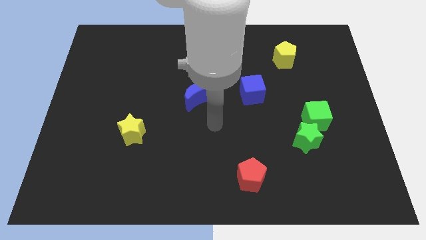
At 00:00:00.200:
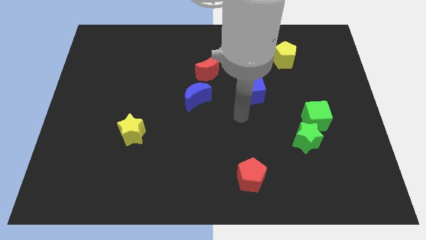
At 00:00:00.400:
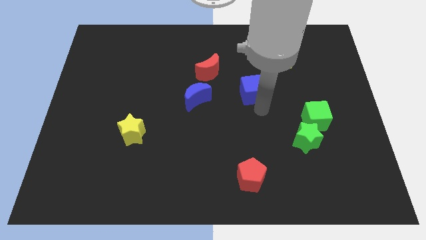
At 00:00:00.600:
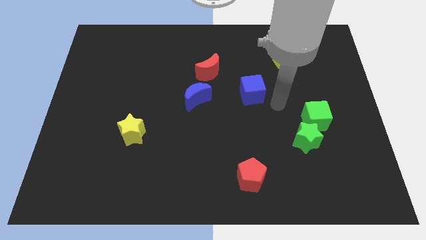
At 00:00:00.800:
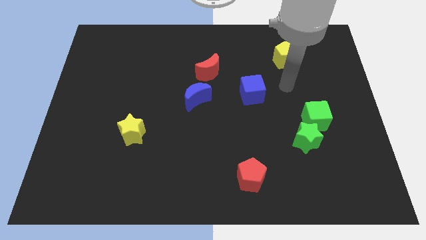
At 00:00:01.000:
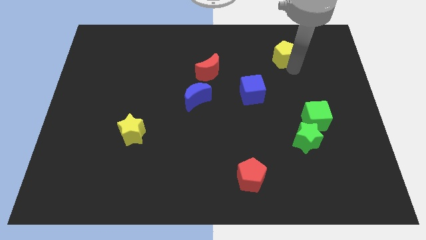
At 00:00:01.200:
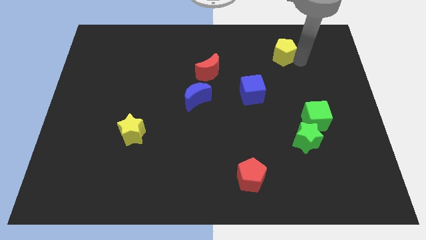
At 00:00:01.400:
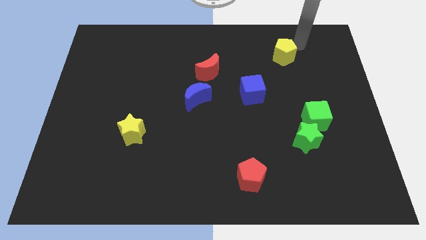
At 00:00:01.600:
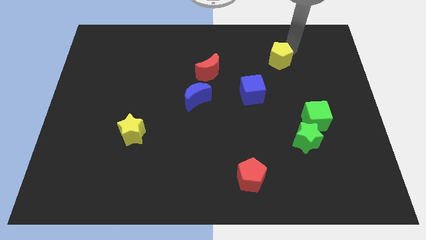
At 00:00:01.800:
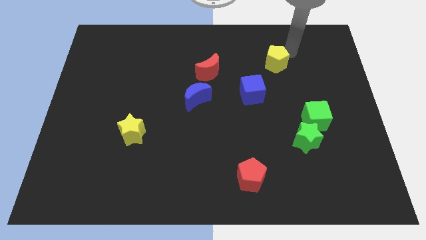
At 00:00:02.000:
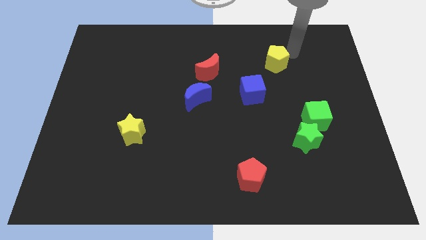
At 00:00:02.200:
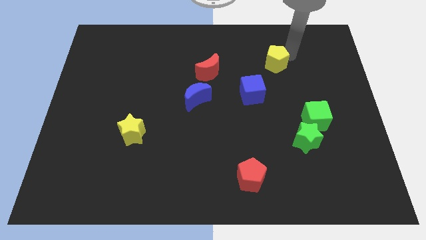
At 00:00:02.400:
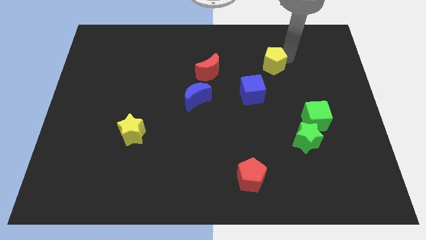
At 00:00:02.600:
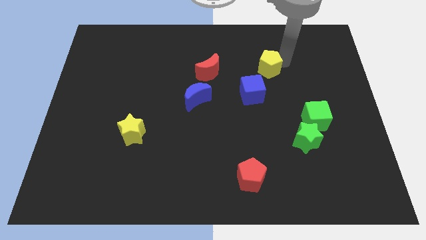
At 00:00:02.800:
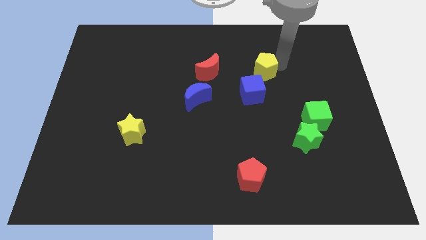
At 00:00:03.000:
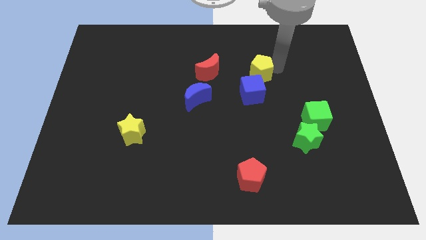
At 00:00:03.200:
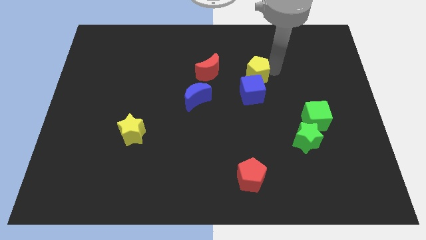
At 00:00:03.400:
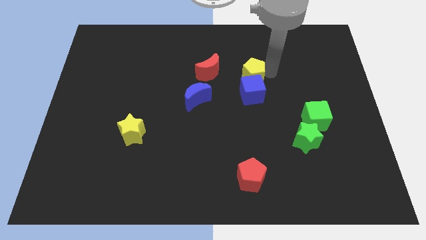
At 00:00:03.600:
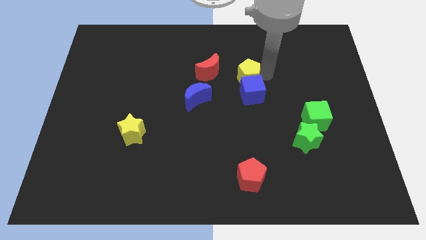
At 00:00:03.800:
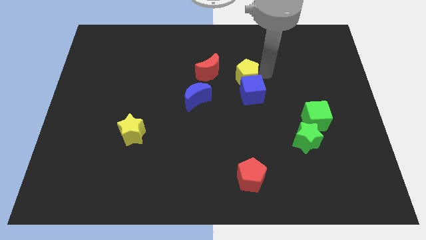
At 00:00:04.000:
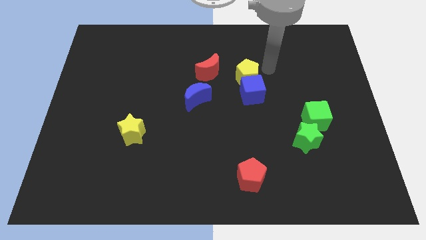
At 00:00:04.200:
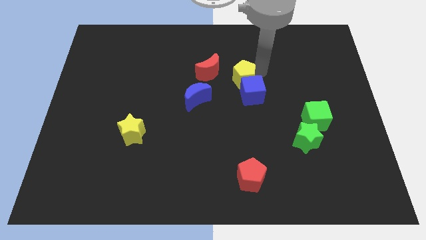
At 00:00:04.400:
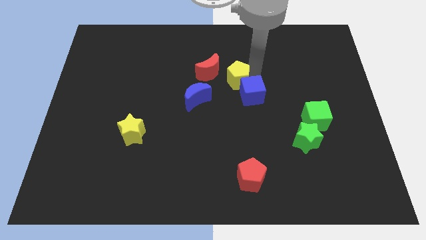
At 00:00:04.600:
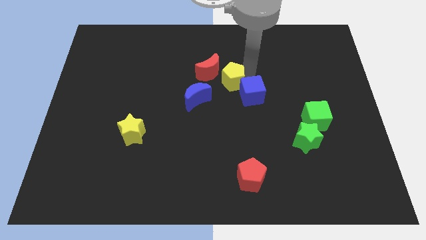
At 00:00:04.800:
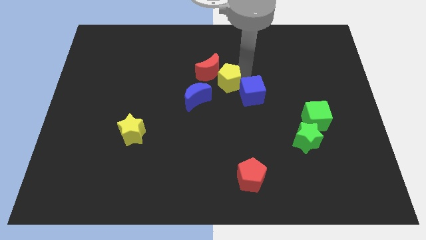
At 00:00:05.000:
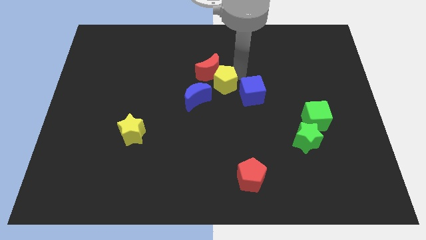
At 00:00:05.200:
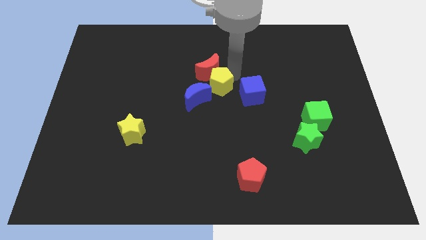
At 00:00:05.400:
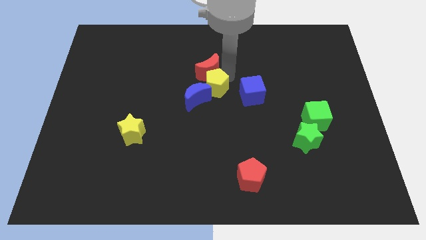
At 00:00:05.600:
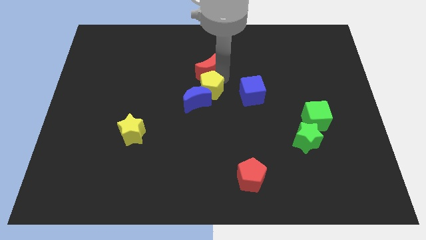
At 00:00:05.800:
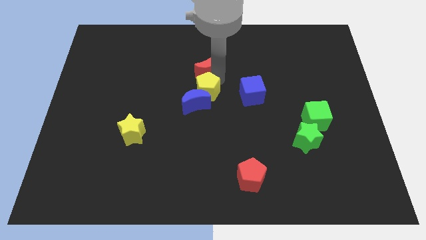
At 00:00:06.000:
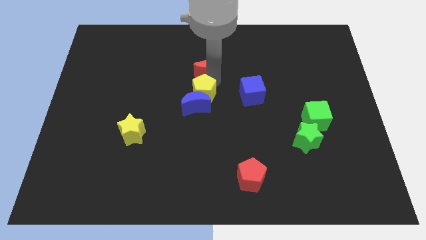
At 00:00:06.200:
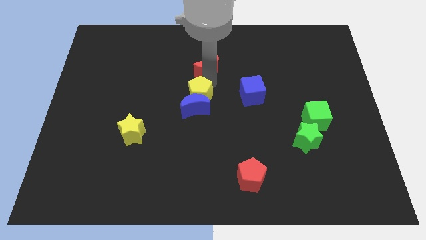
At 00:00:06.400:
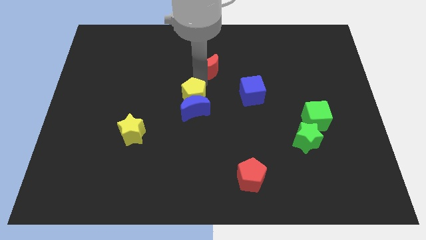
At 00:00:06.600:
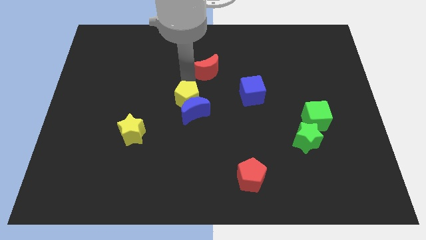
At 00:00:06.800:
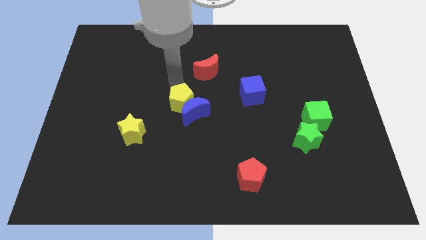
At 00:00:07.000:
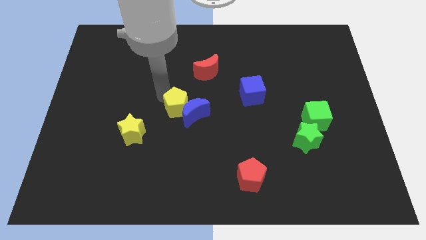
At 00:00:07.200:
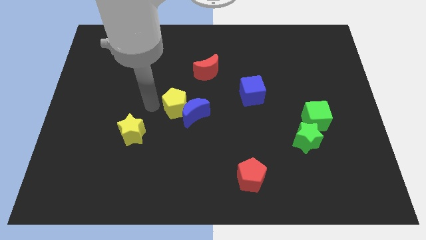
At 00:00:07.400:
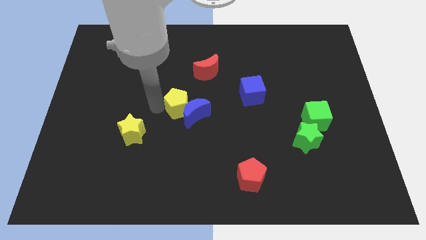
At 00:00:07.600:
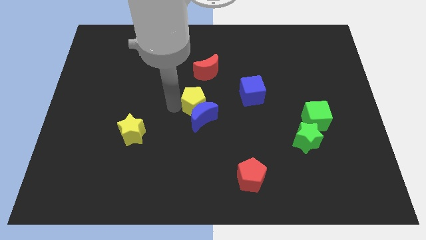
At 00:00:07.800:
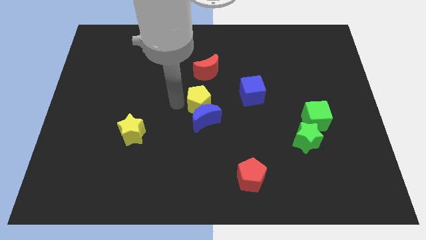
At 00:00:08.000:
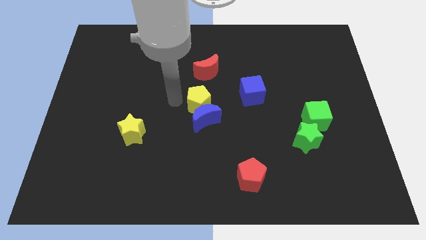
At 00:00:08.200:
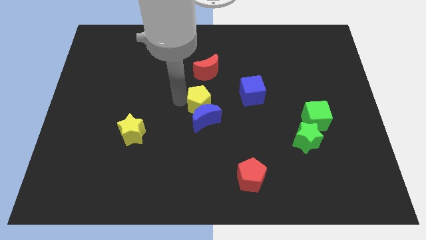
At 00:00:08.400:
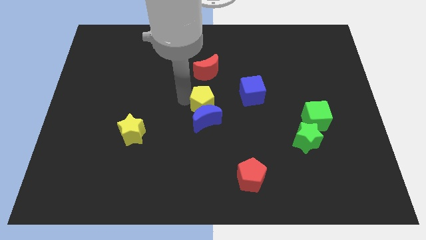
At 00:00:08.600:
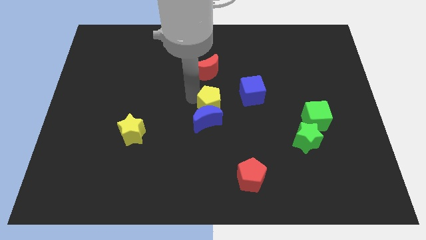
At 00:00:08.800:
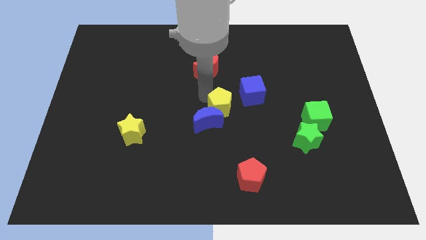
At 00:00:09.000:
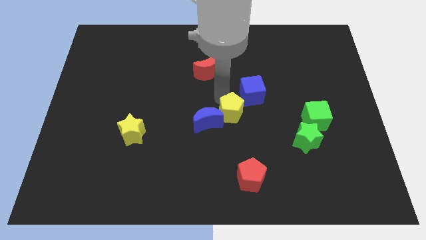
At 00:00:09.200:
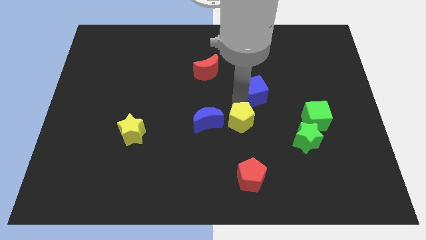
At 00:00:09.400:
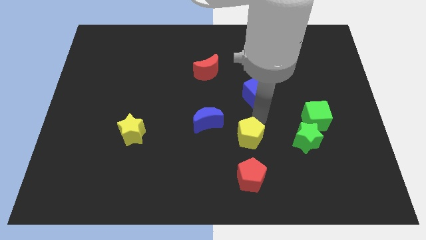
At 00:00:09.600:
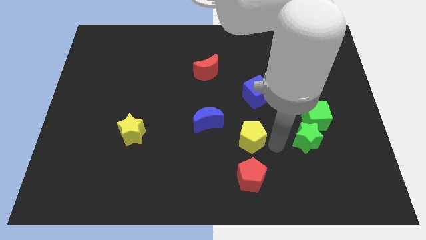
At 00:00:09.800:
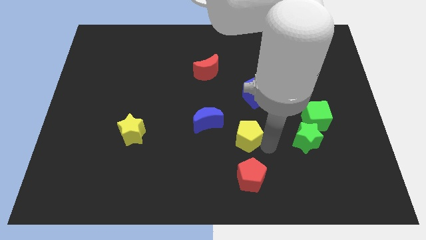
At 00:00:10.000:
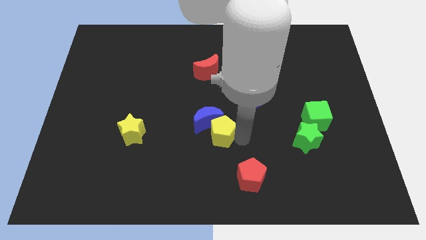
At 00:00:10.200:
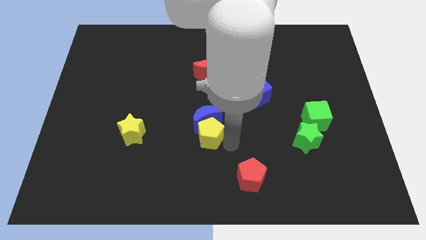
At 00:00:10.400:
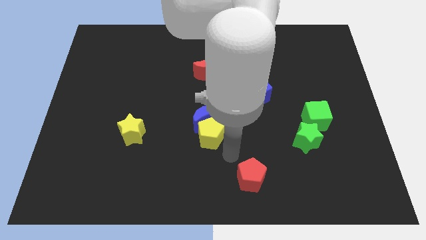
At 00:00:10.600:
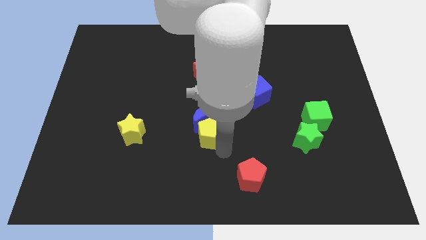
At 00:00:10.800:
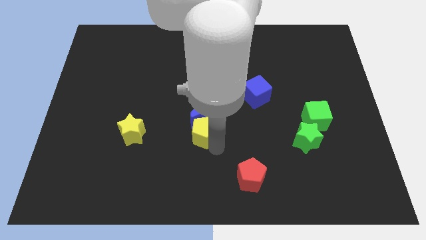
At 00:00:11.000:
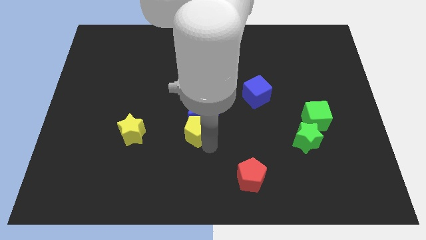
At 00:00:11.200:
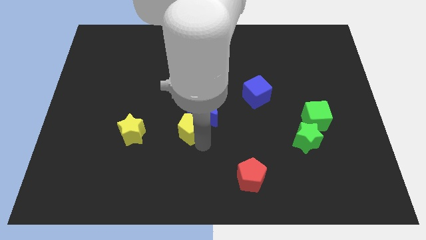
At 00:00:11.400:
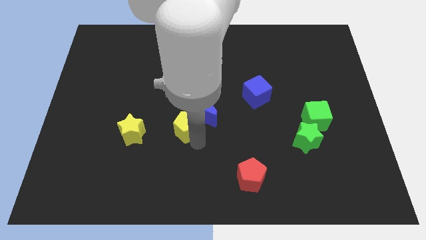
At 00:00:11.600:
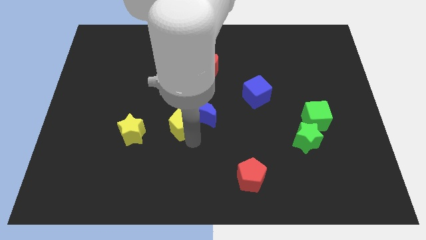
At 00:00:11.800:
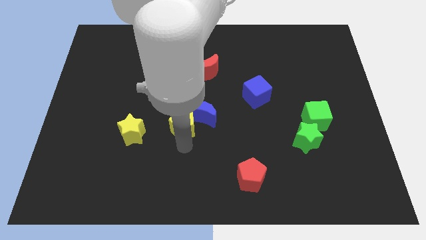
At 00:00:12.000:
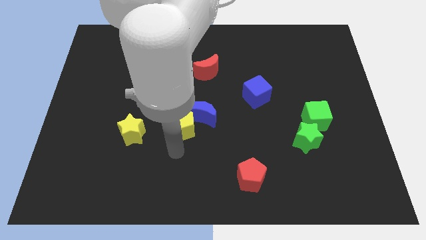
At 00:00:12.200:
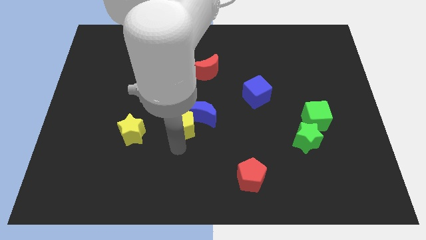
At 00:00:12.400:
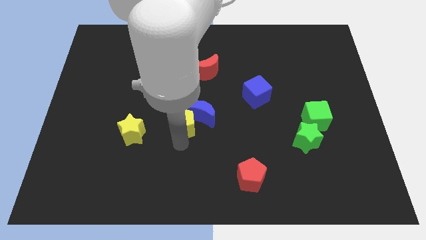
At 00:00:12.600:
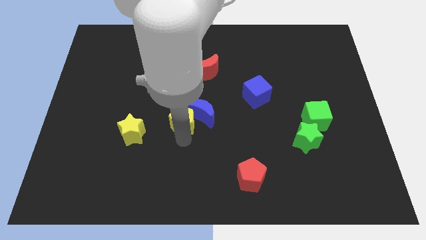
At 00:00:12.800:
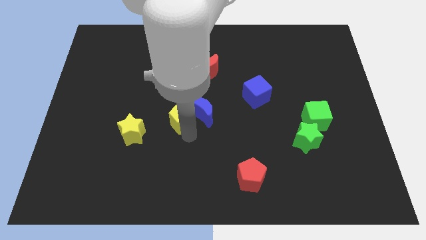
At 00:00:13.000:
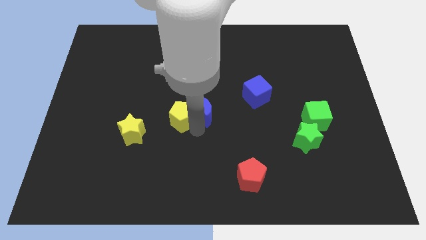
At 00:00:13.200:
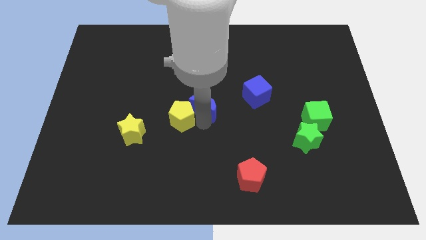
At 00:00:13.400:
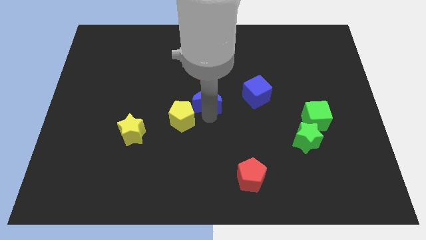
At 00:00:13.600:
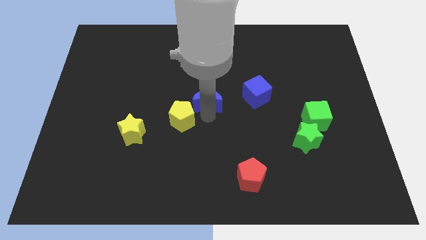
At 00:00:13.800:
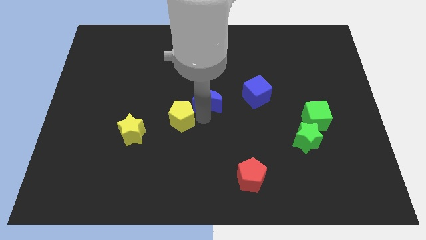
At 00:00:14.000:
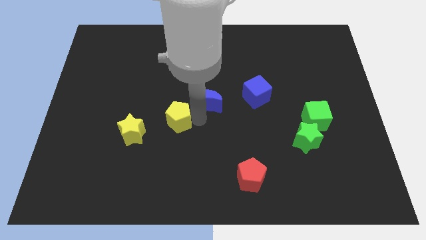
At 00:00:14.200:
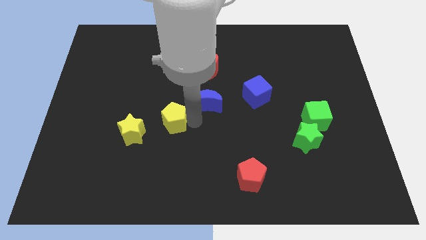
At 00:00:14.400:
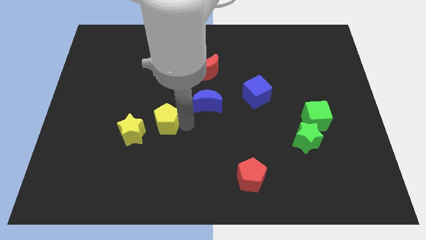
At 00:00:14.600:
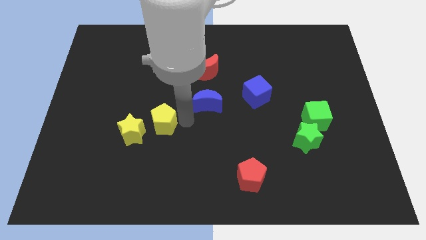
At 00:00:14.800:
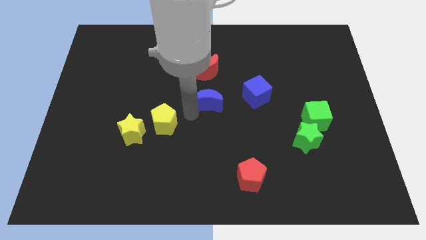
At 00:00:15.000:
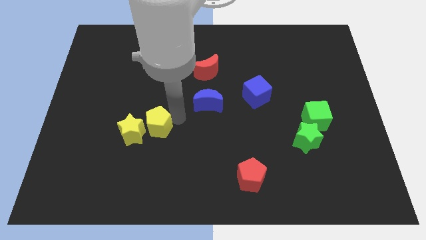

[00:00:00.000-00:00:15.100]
move the yellow pentagon close to the yellow star

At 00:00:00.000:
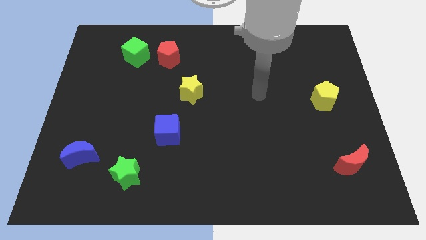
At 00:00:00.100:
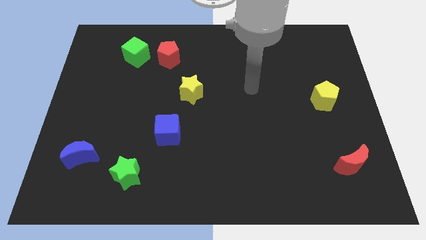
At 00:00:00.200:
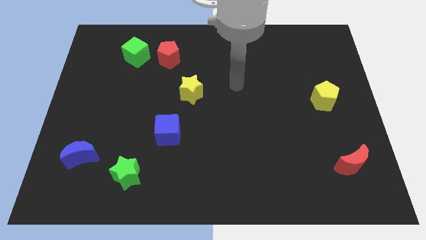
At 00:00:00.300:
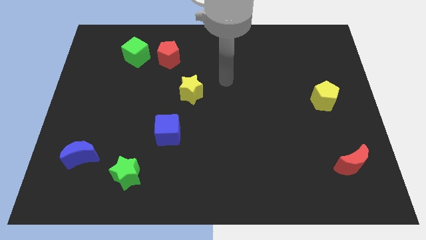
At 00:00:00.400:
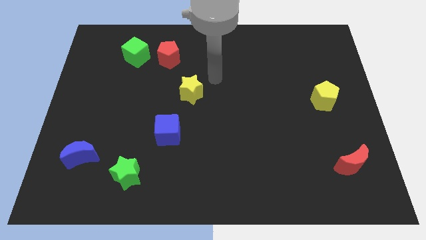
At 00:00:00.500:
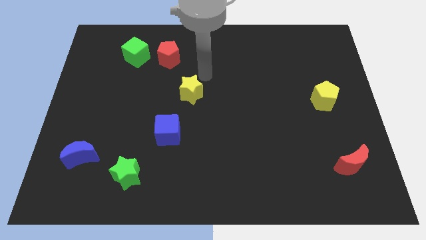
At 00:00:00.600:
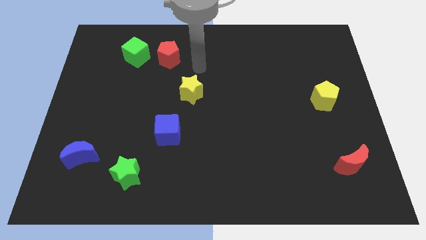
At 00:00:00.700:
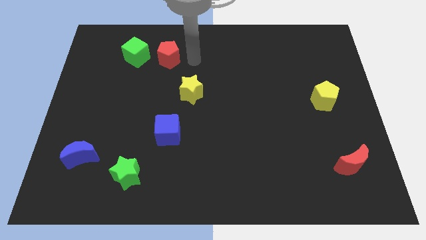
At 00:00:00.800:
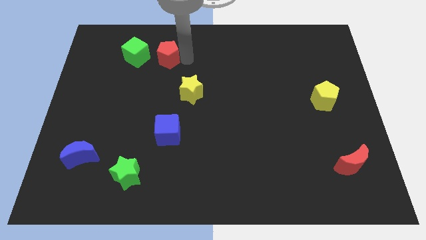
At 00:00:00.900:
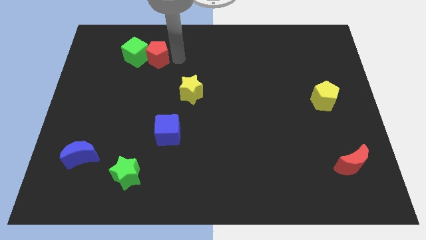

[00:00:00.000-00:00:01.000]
put the red pentagon next to the green cube
